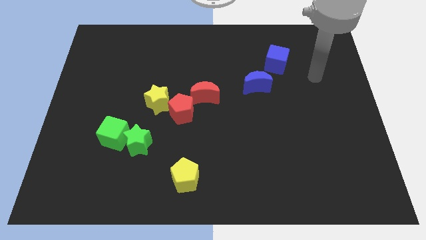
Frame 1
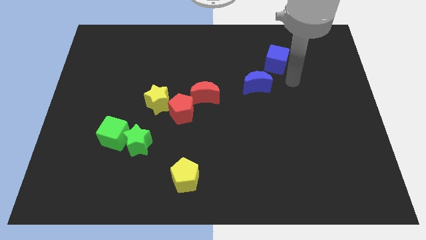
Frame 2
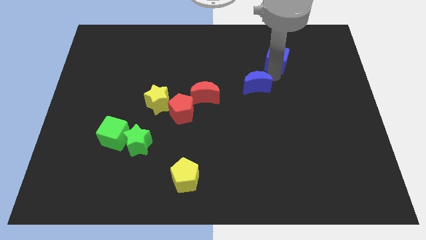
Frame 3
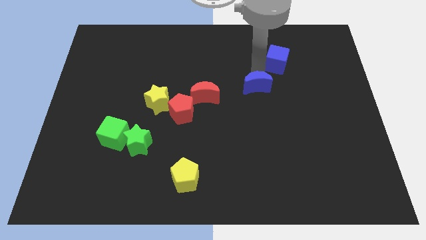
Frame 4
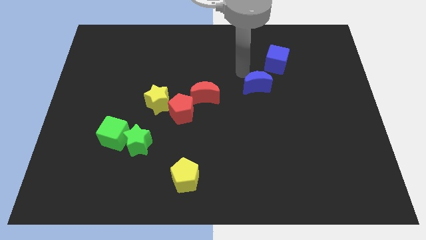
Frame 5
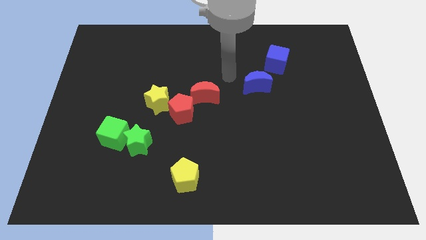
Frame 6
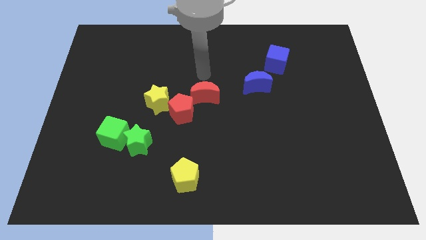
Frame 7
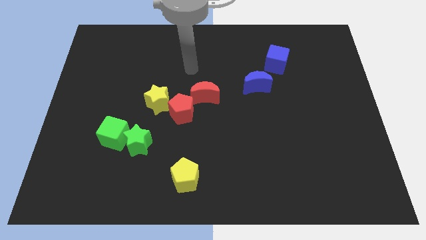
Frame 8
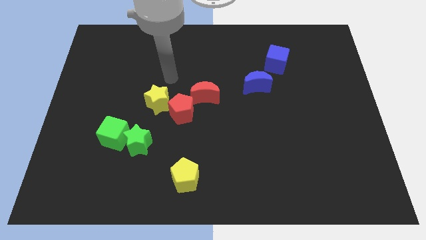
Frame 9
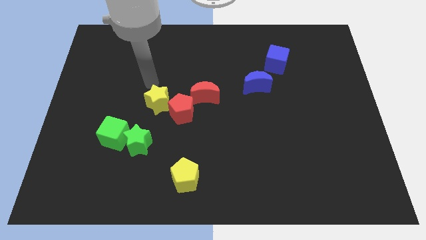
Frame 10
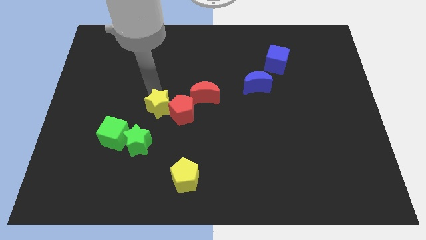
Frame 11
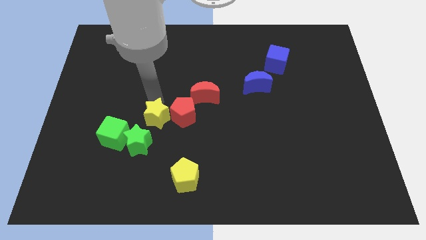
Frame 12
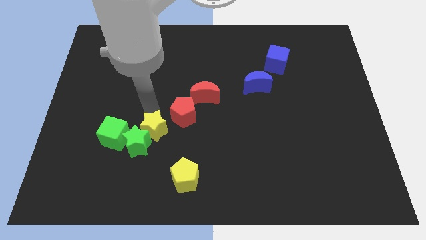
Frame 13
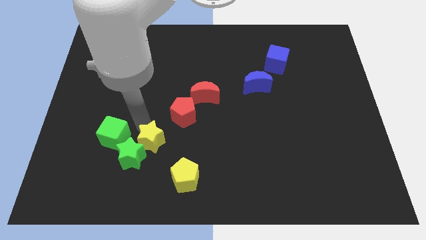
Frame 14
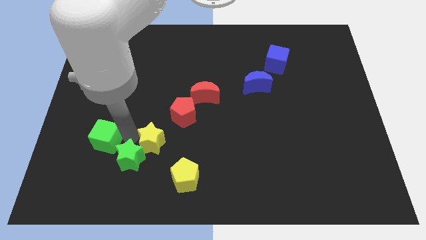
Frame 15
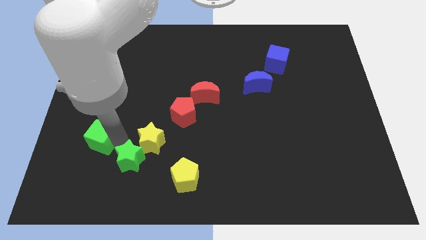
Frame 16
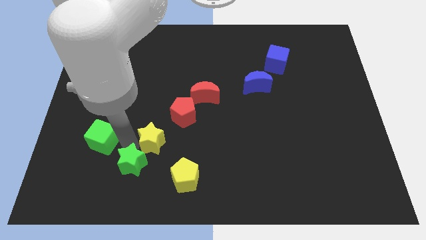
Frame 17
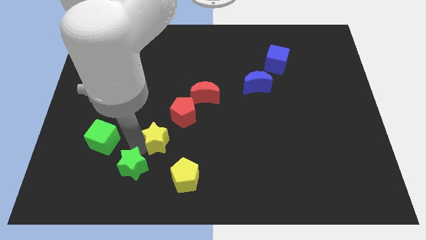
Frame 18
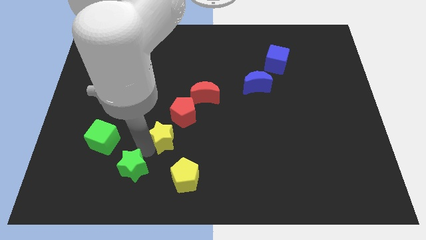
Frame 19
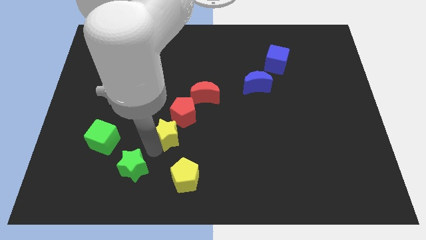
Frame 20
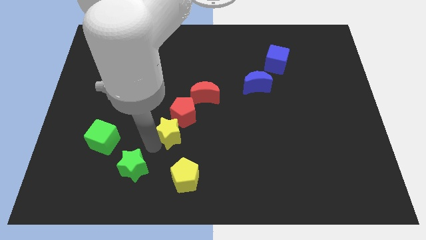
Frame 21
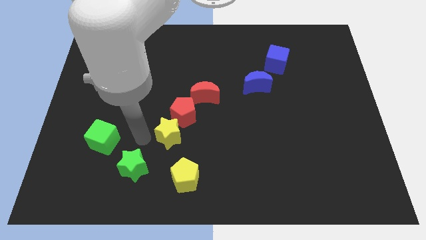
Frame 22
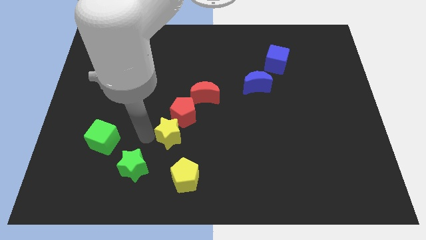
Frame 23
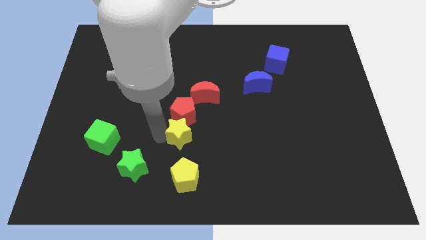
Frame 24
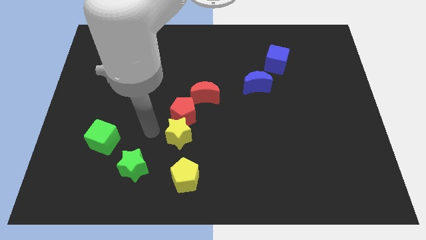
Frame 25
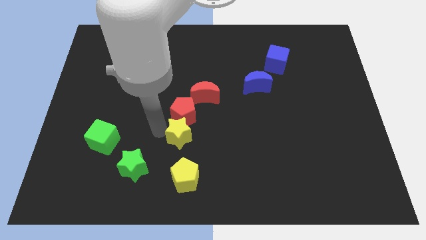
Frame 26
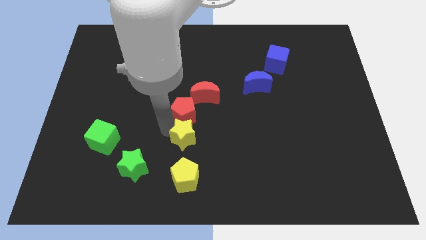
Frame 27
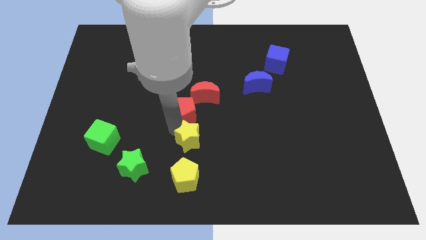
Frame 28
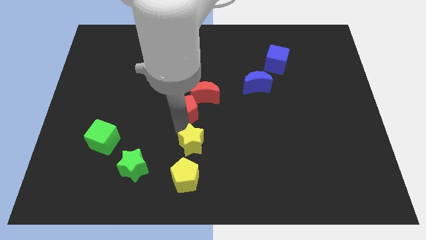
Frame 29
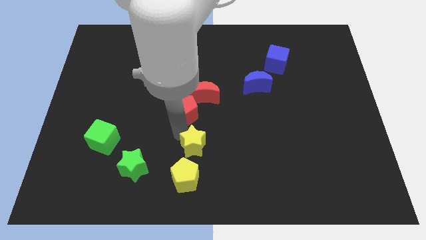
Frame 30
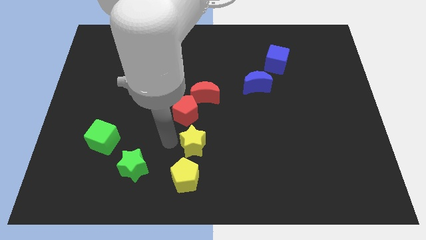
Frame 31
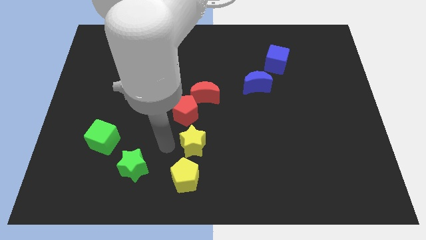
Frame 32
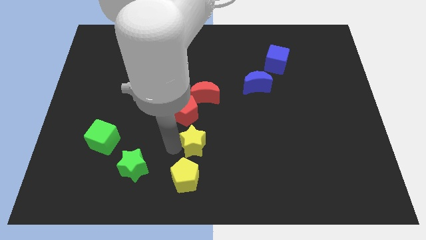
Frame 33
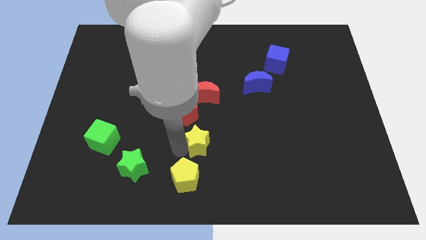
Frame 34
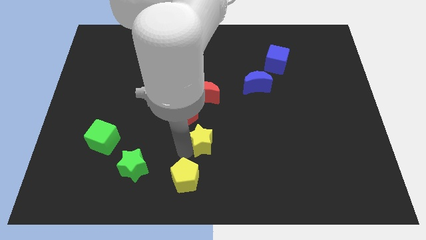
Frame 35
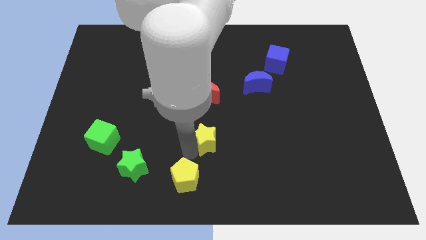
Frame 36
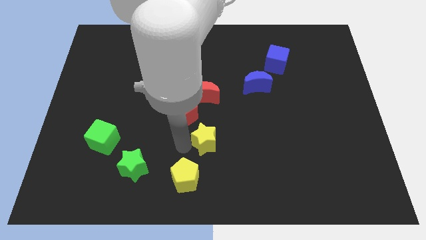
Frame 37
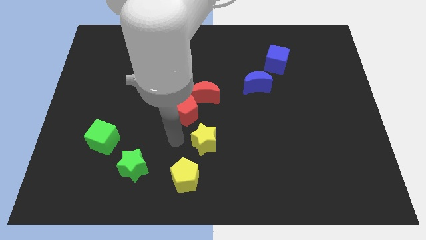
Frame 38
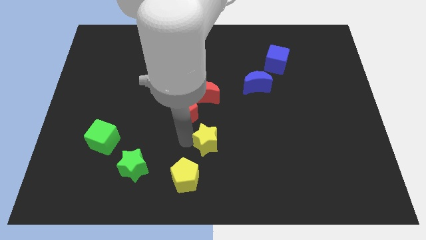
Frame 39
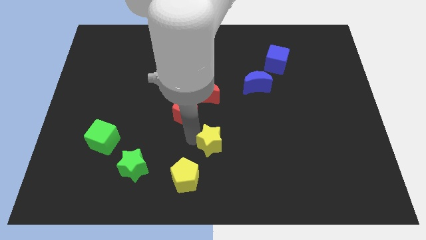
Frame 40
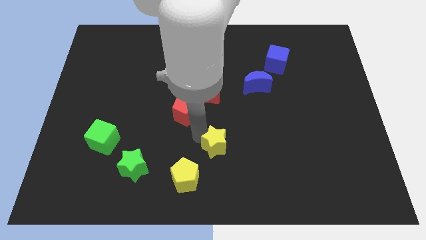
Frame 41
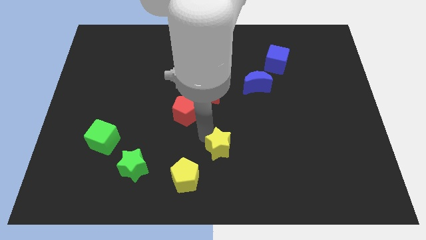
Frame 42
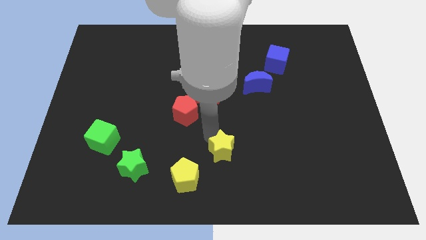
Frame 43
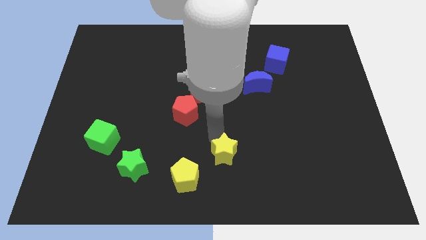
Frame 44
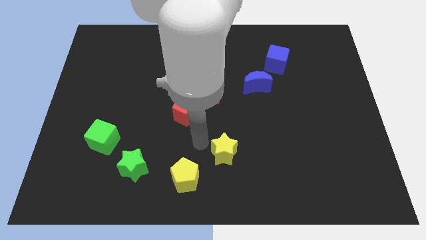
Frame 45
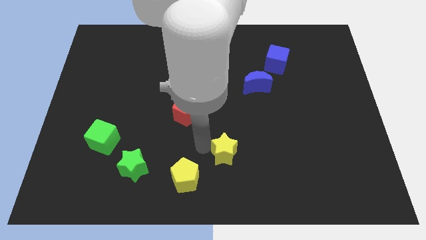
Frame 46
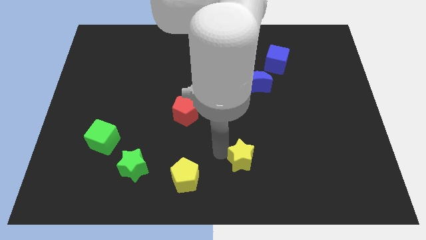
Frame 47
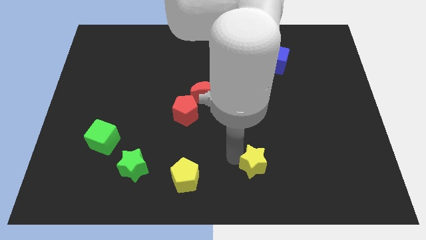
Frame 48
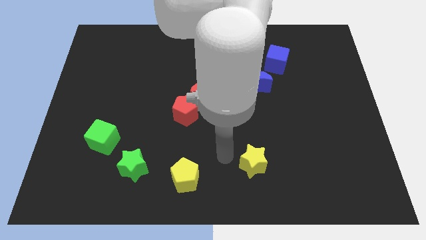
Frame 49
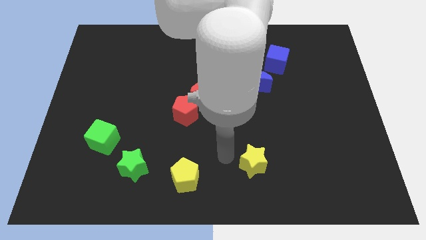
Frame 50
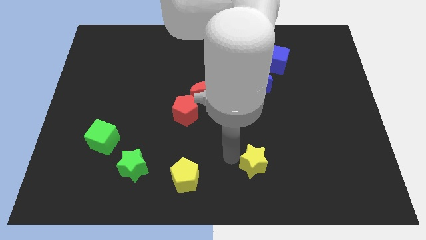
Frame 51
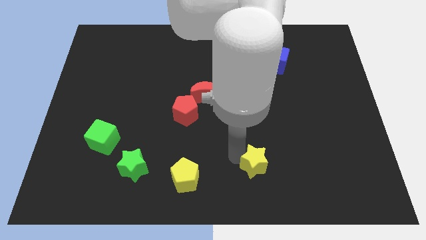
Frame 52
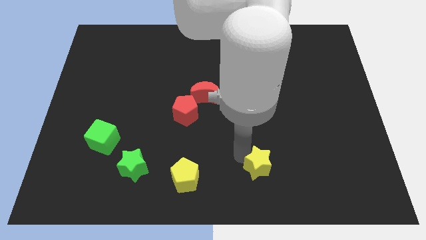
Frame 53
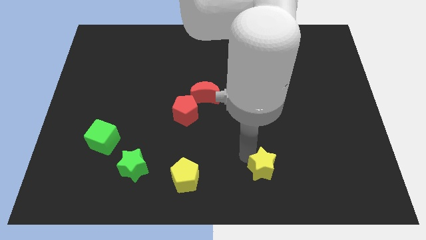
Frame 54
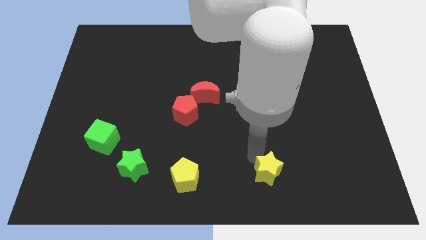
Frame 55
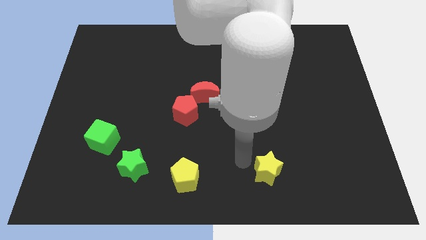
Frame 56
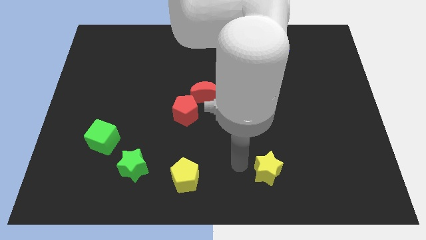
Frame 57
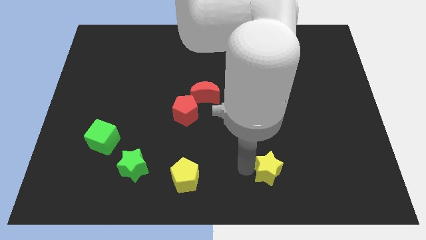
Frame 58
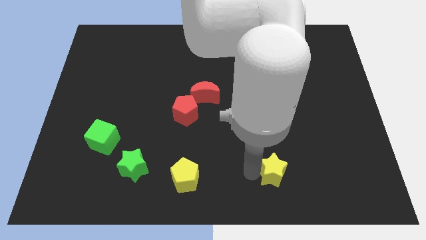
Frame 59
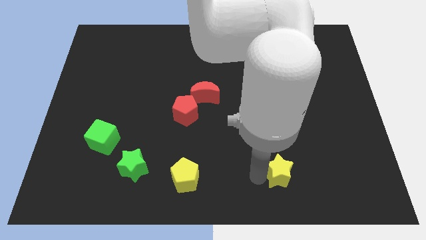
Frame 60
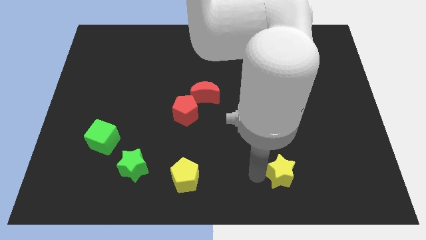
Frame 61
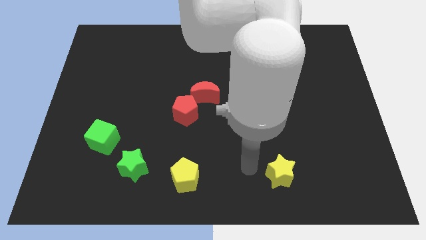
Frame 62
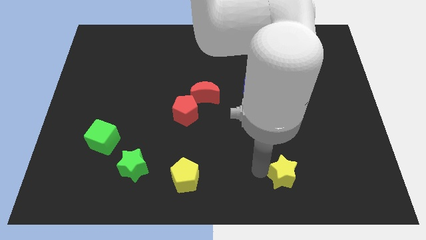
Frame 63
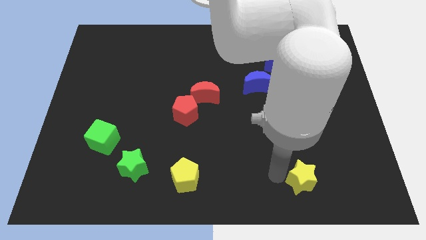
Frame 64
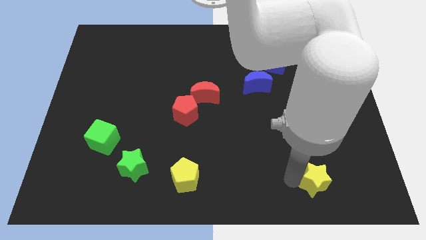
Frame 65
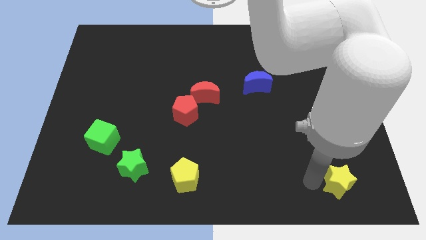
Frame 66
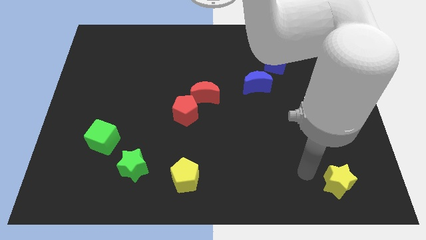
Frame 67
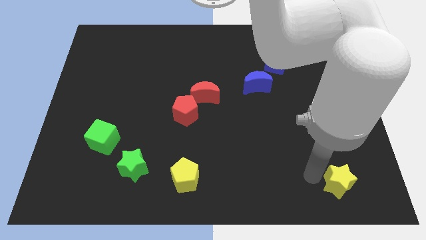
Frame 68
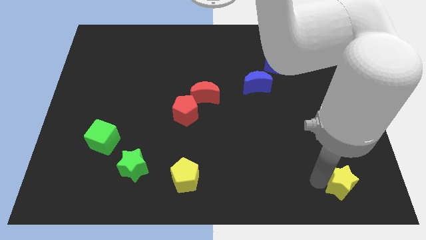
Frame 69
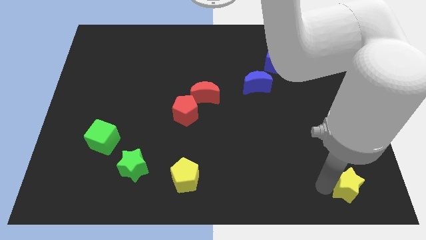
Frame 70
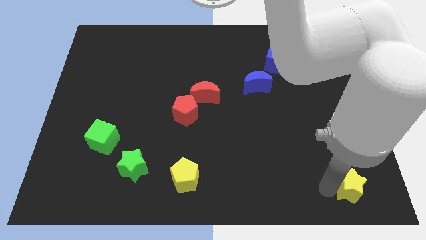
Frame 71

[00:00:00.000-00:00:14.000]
slide the yellow star to the bottom right of the board
